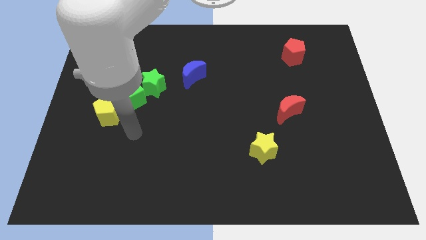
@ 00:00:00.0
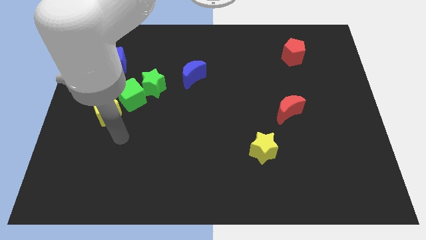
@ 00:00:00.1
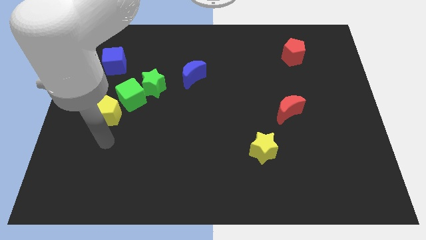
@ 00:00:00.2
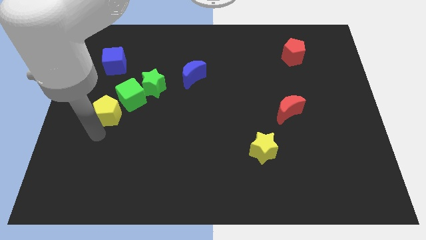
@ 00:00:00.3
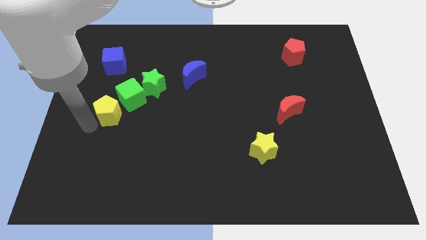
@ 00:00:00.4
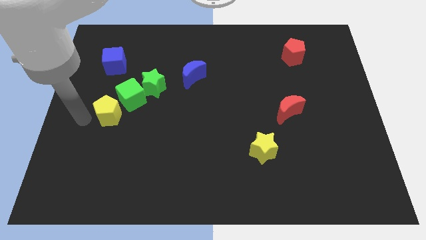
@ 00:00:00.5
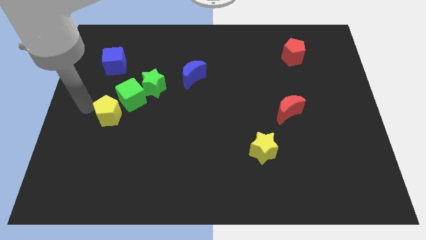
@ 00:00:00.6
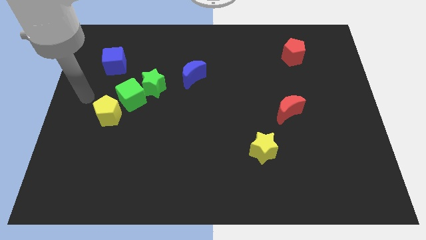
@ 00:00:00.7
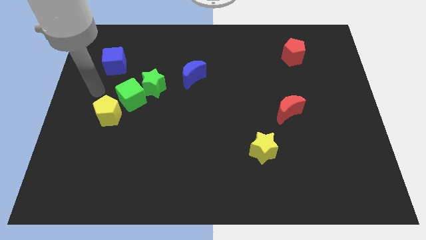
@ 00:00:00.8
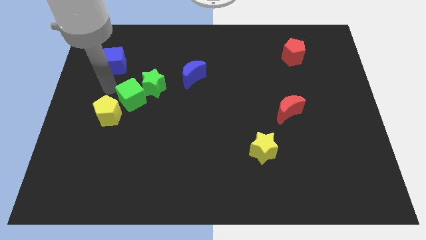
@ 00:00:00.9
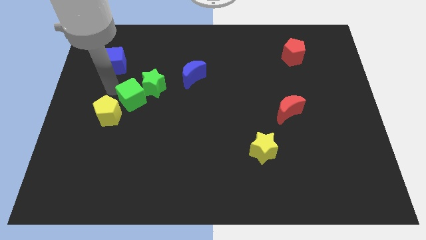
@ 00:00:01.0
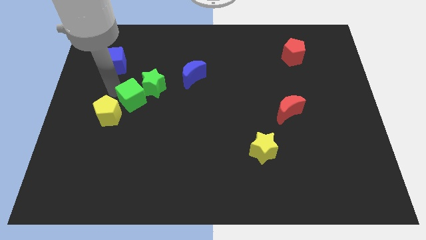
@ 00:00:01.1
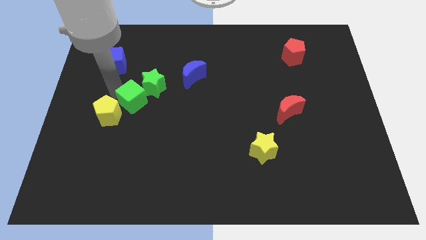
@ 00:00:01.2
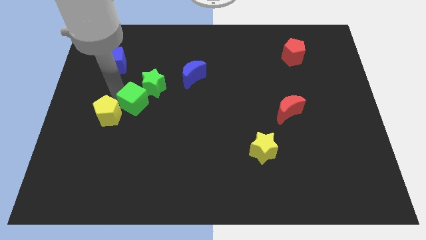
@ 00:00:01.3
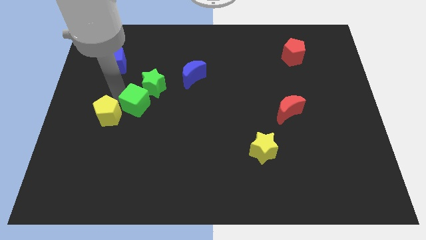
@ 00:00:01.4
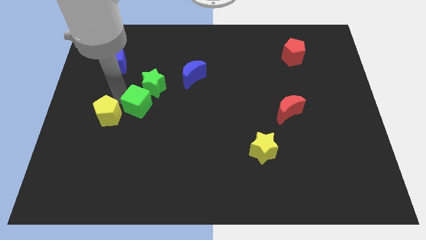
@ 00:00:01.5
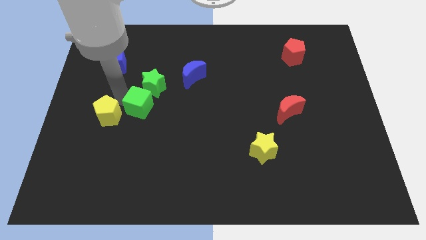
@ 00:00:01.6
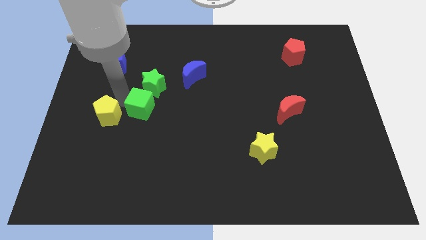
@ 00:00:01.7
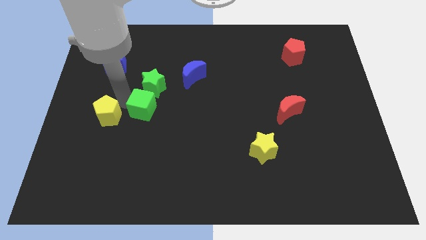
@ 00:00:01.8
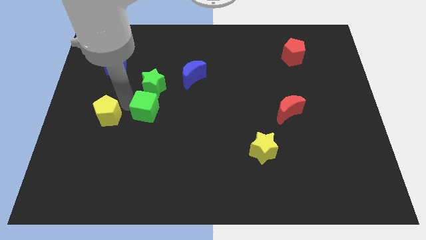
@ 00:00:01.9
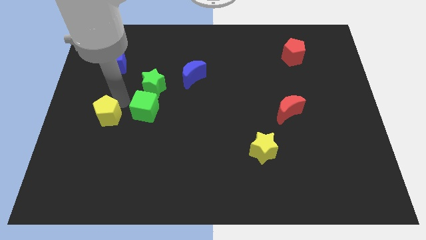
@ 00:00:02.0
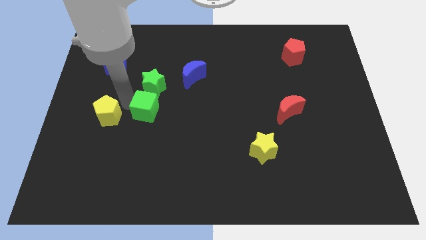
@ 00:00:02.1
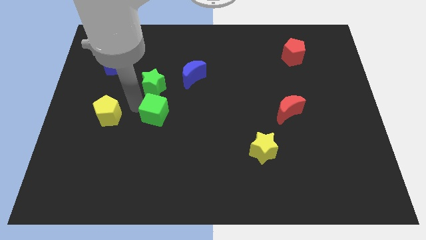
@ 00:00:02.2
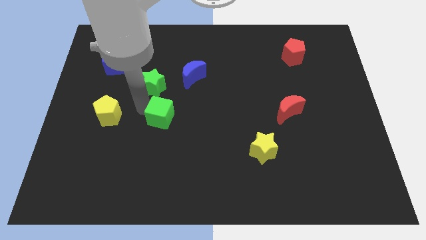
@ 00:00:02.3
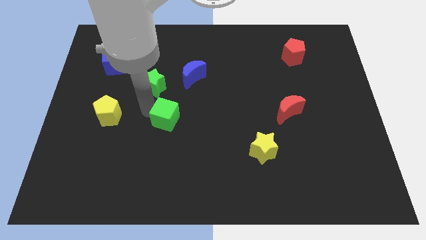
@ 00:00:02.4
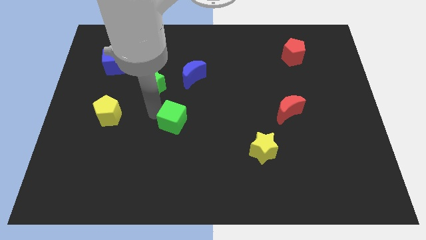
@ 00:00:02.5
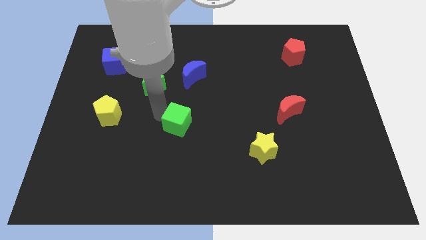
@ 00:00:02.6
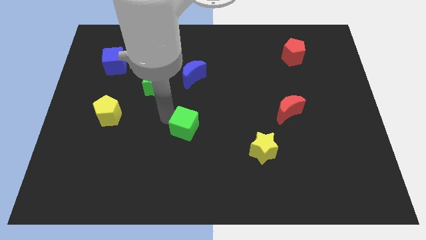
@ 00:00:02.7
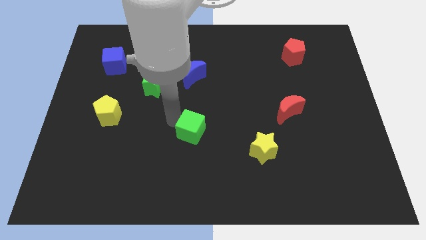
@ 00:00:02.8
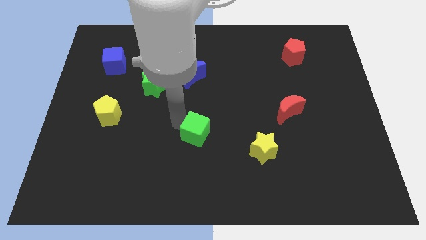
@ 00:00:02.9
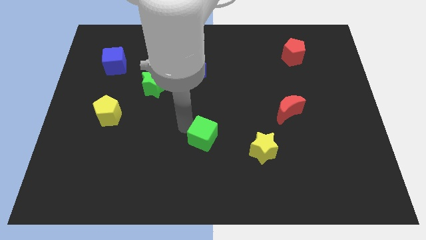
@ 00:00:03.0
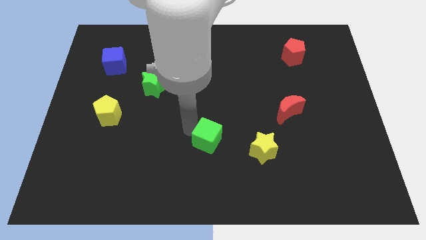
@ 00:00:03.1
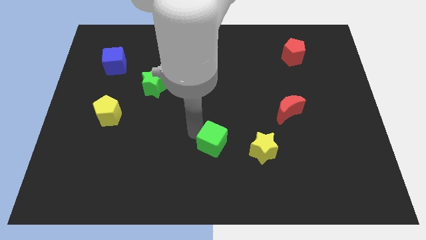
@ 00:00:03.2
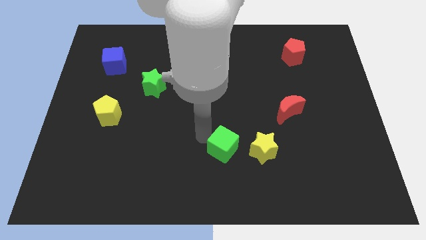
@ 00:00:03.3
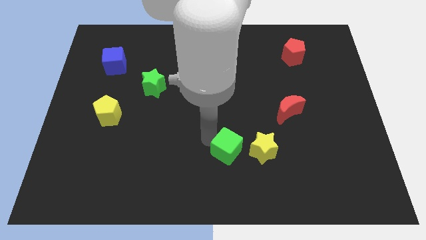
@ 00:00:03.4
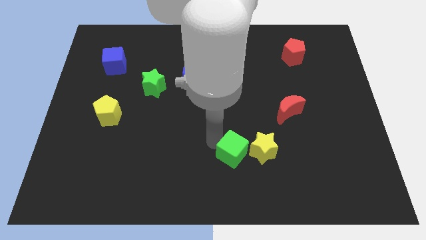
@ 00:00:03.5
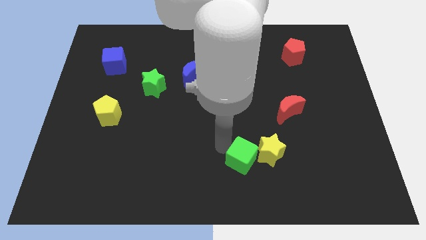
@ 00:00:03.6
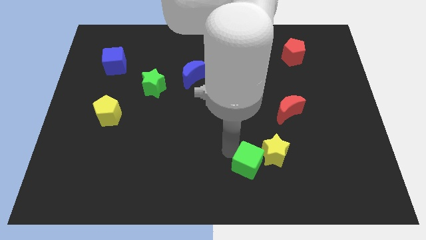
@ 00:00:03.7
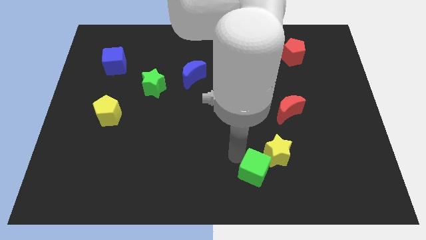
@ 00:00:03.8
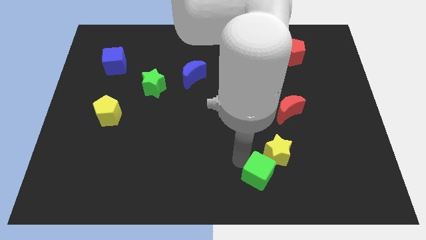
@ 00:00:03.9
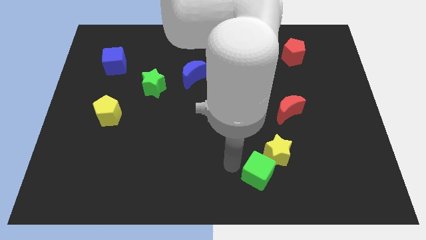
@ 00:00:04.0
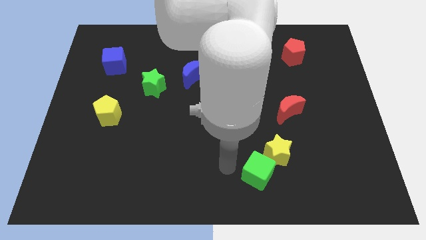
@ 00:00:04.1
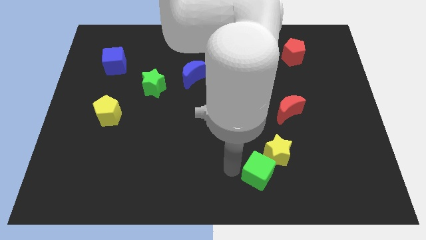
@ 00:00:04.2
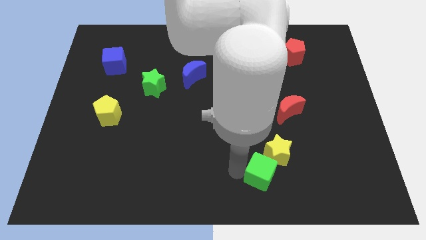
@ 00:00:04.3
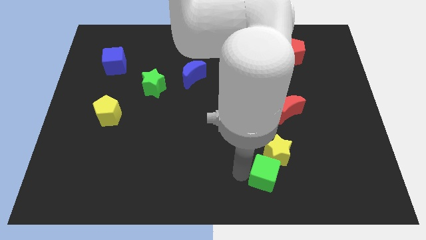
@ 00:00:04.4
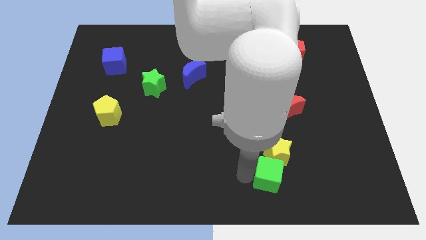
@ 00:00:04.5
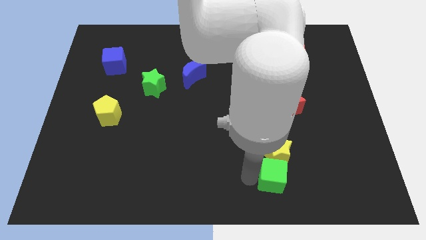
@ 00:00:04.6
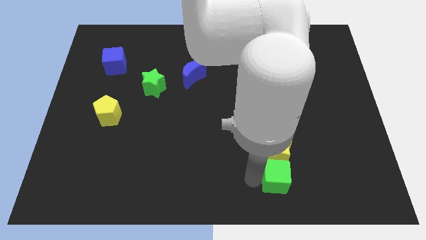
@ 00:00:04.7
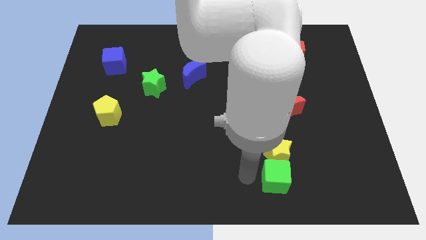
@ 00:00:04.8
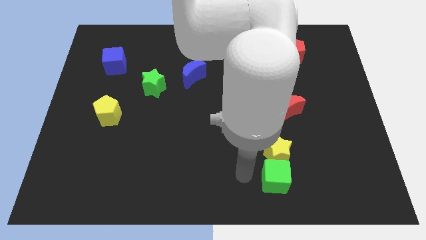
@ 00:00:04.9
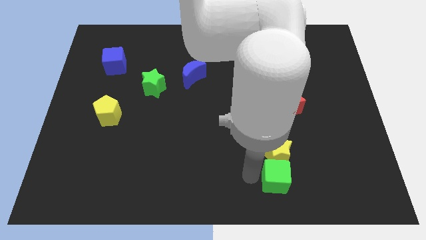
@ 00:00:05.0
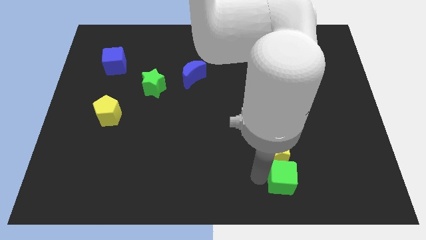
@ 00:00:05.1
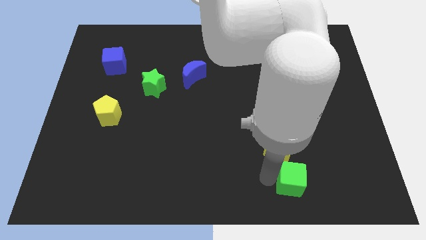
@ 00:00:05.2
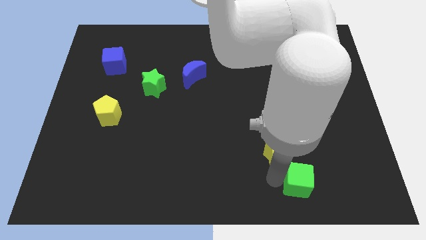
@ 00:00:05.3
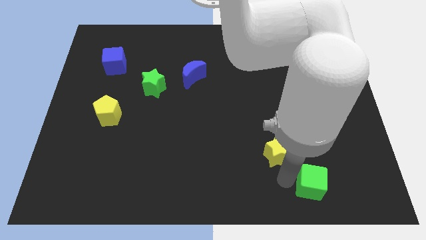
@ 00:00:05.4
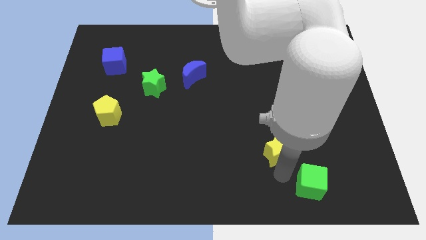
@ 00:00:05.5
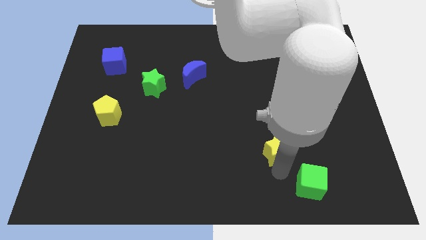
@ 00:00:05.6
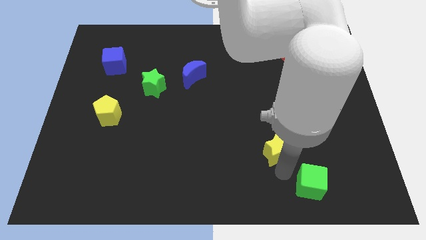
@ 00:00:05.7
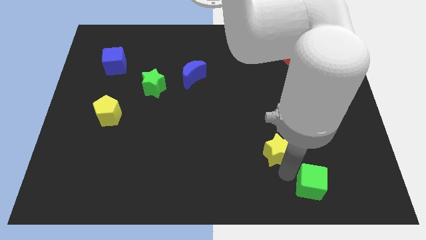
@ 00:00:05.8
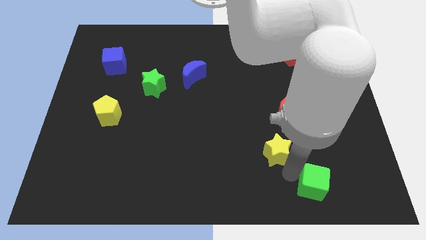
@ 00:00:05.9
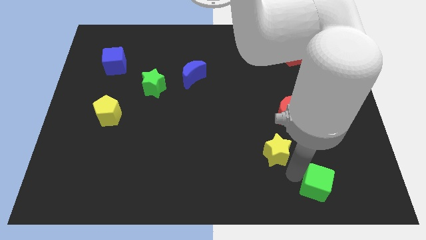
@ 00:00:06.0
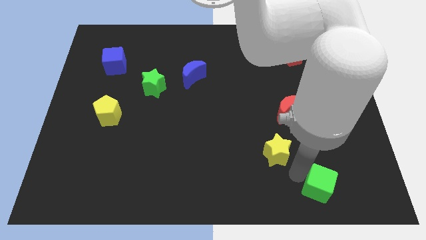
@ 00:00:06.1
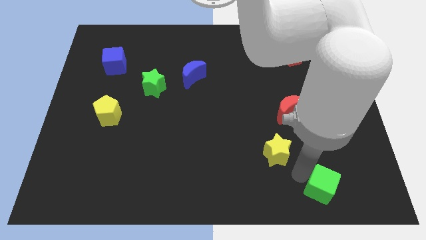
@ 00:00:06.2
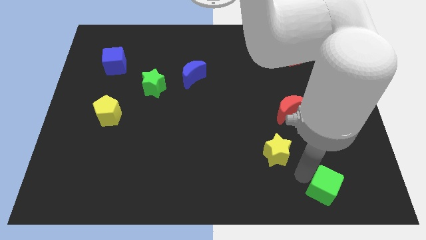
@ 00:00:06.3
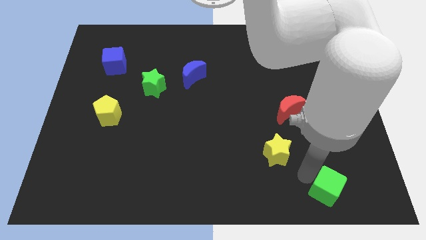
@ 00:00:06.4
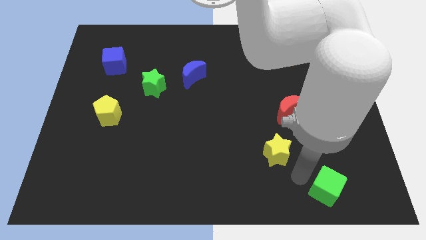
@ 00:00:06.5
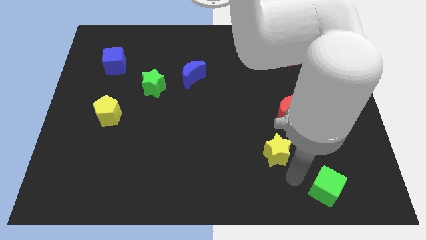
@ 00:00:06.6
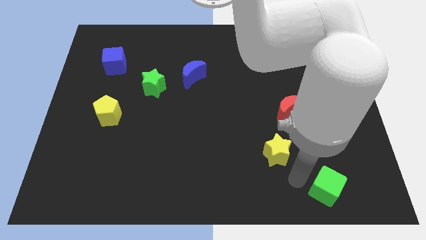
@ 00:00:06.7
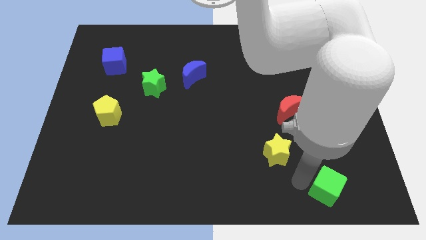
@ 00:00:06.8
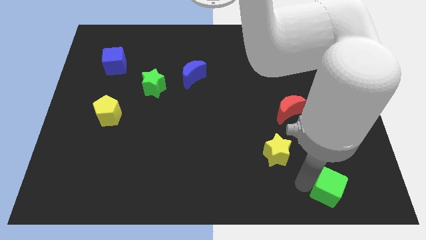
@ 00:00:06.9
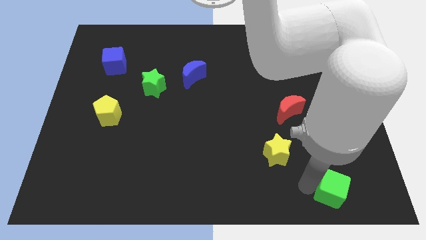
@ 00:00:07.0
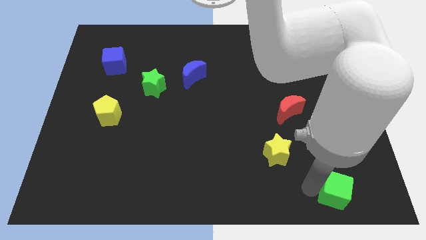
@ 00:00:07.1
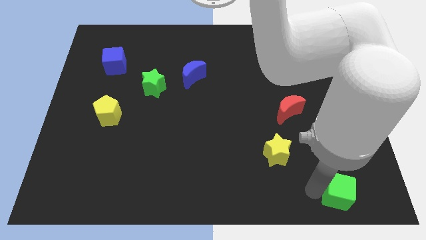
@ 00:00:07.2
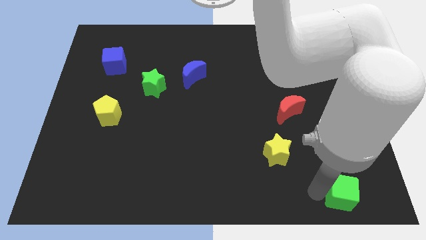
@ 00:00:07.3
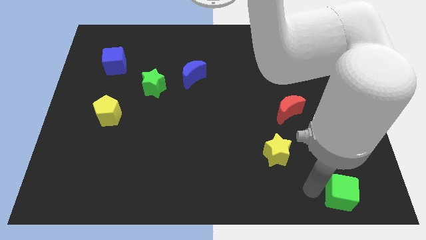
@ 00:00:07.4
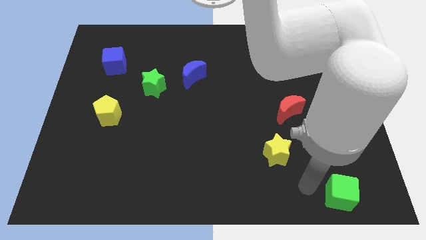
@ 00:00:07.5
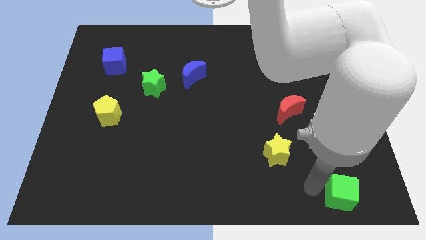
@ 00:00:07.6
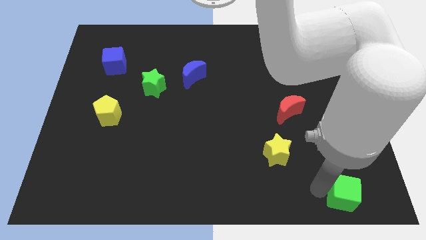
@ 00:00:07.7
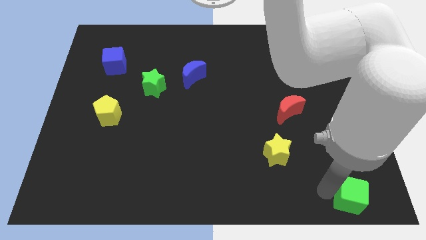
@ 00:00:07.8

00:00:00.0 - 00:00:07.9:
push the green cube to the bottom right corner
